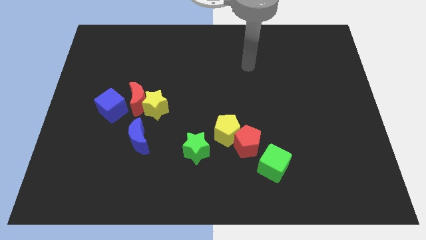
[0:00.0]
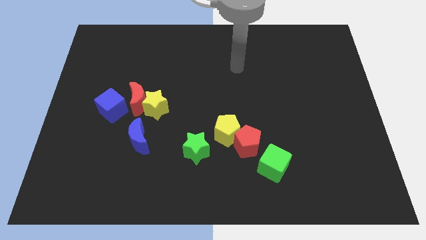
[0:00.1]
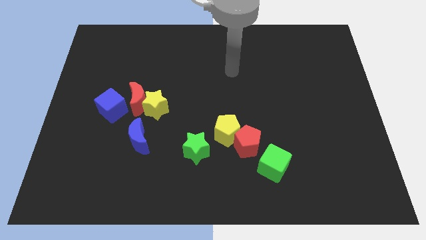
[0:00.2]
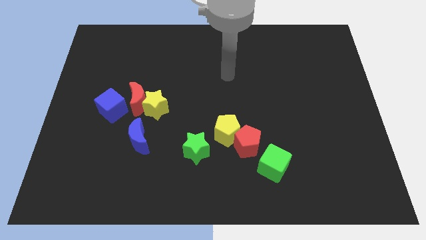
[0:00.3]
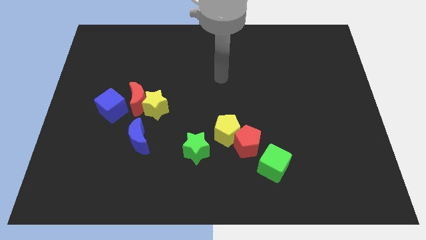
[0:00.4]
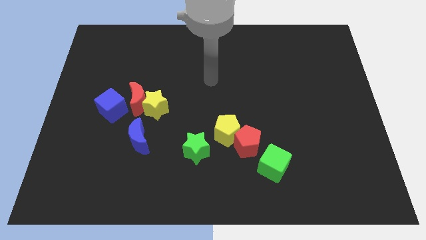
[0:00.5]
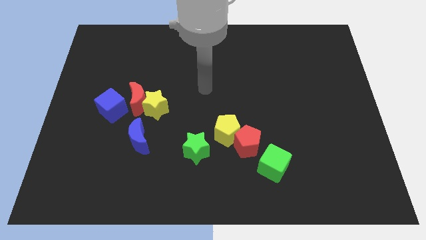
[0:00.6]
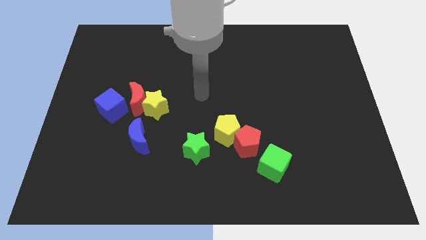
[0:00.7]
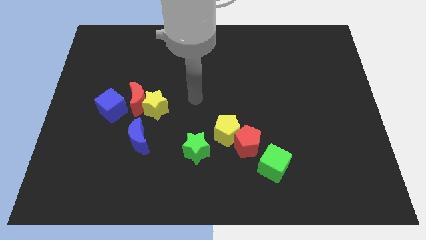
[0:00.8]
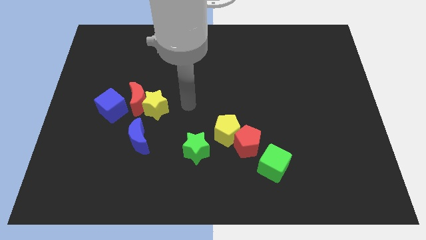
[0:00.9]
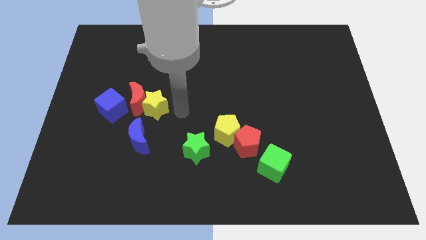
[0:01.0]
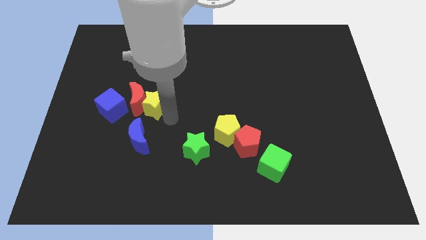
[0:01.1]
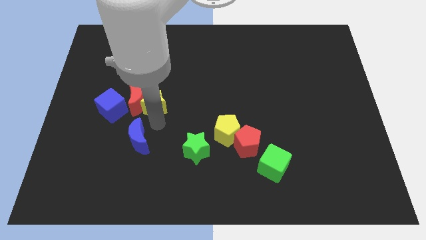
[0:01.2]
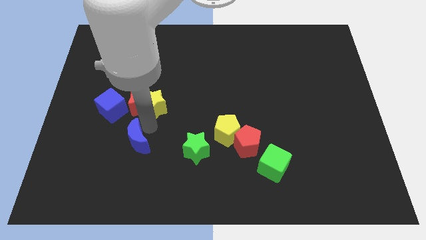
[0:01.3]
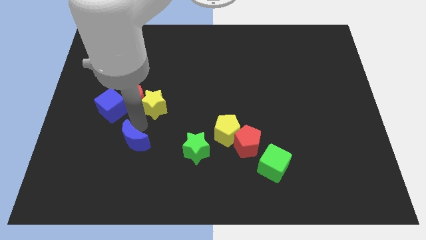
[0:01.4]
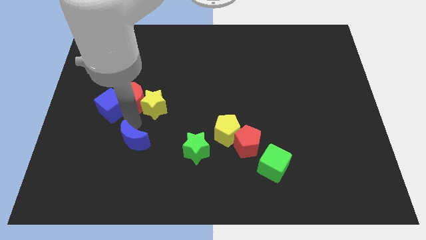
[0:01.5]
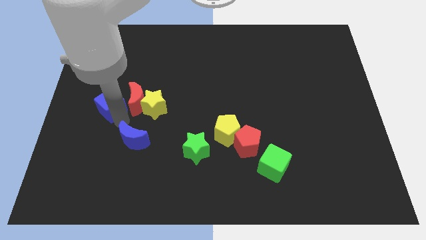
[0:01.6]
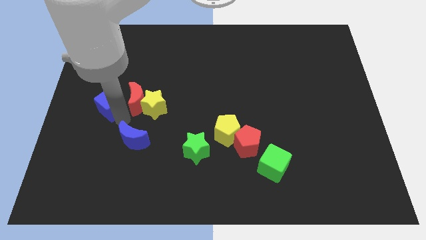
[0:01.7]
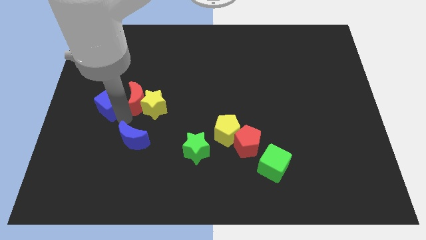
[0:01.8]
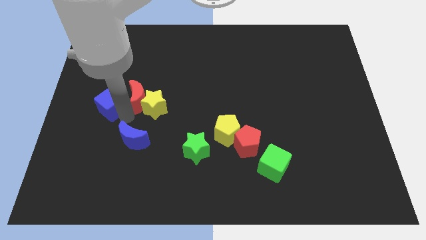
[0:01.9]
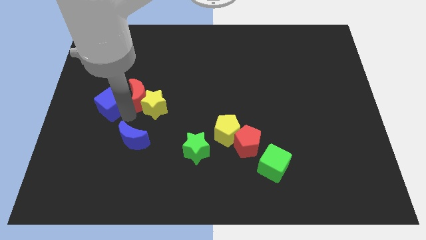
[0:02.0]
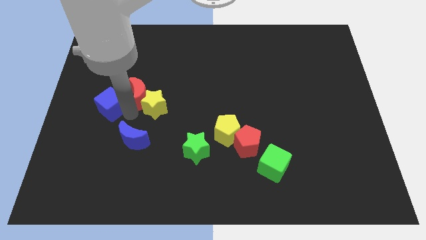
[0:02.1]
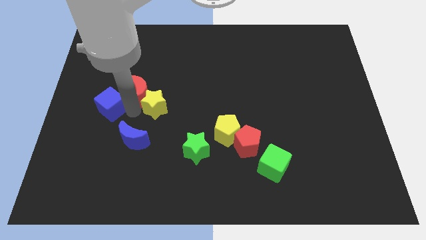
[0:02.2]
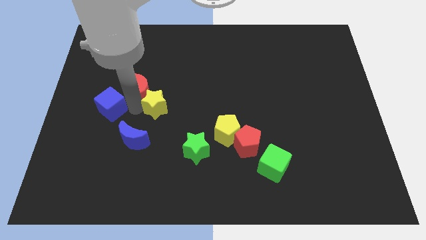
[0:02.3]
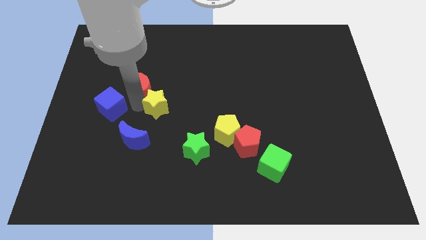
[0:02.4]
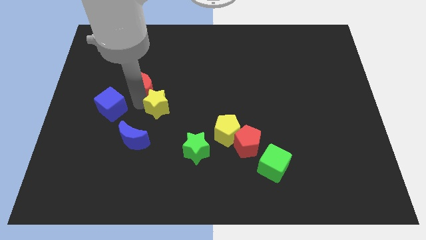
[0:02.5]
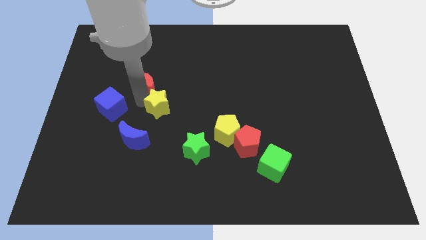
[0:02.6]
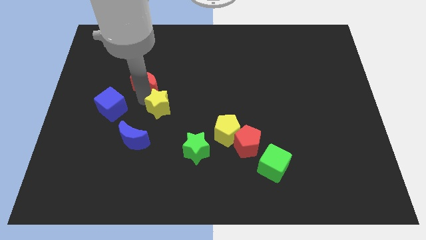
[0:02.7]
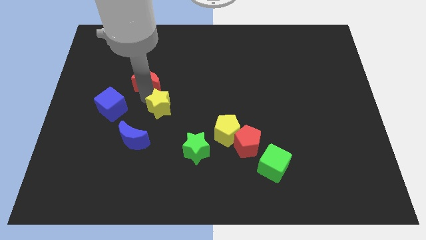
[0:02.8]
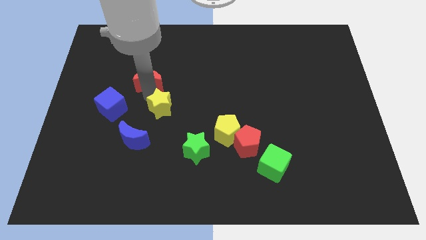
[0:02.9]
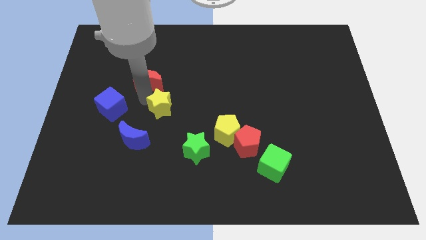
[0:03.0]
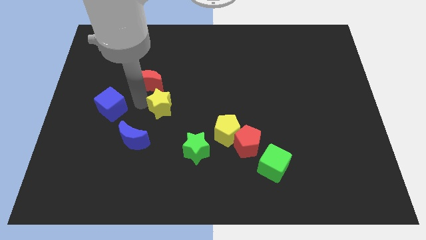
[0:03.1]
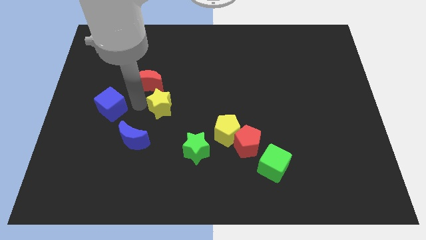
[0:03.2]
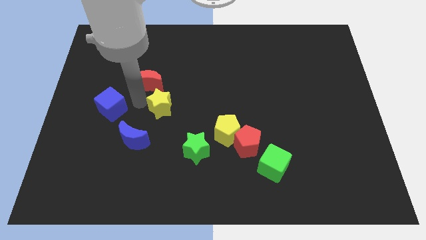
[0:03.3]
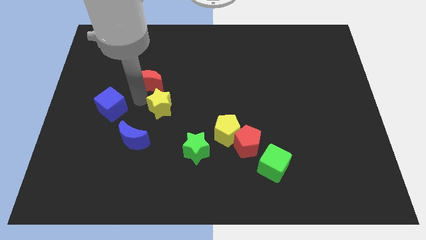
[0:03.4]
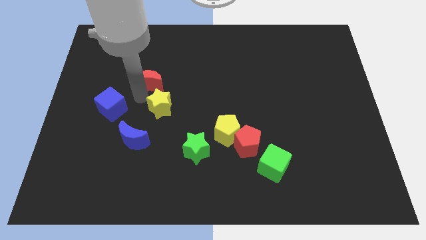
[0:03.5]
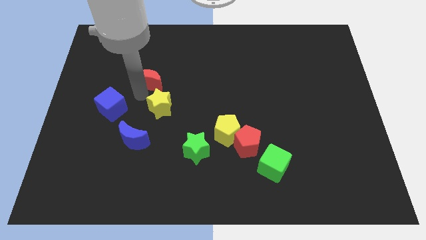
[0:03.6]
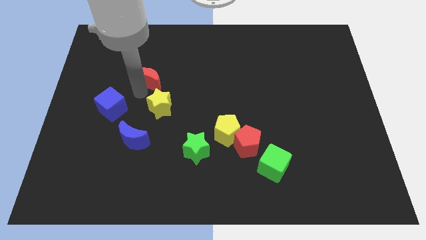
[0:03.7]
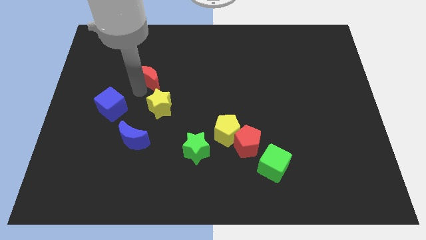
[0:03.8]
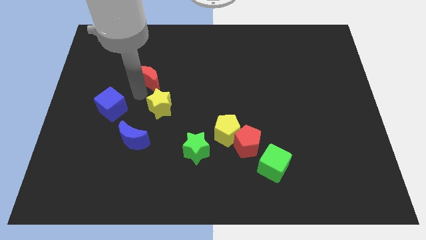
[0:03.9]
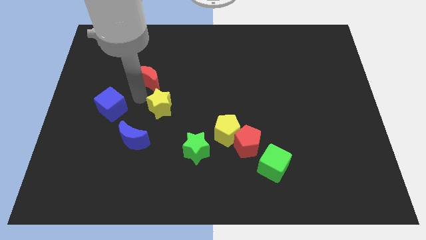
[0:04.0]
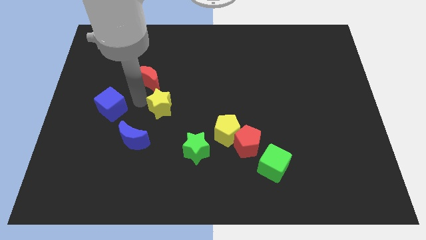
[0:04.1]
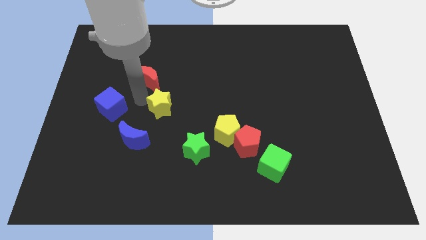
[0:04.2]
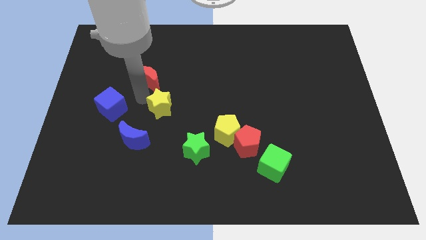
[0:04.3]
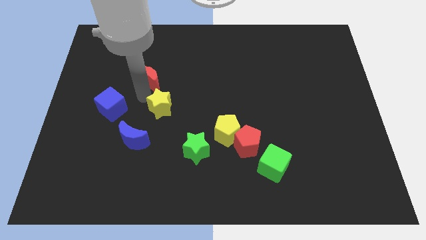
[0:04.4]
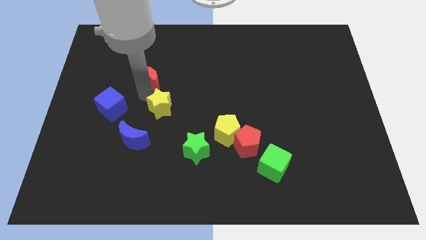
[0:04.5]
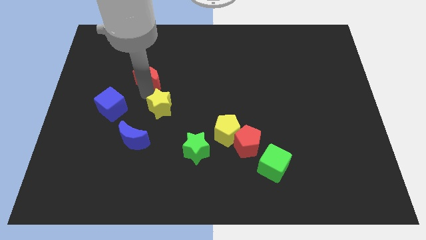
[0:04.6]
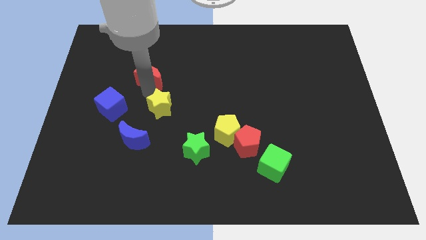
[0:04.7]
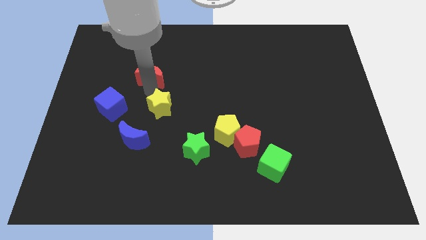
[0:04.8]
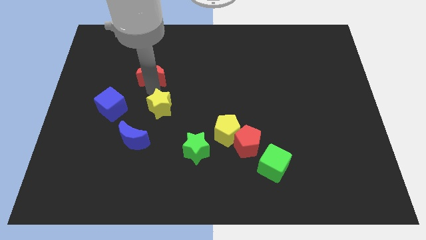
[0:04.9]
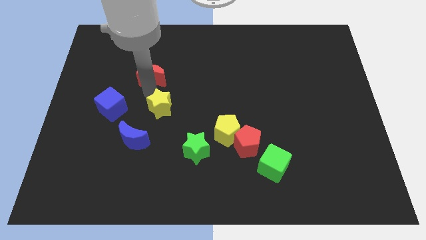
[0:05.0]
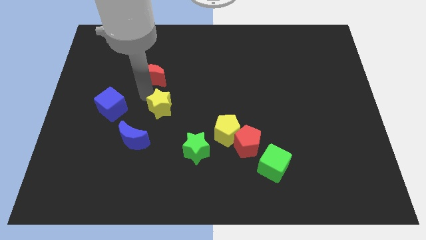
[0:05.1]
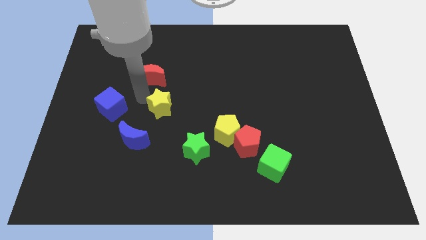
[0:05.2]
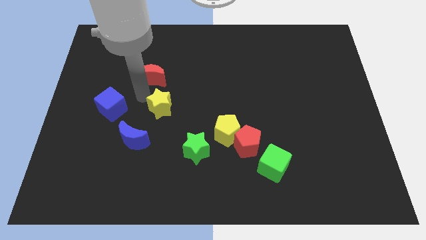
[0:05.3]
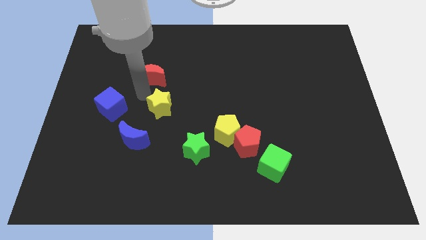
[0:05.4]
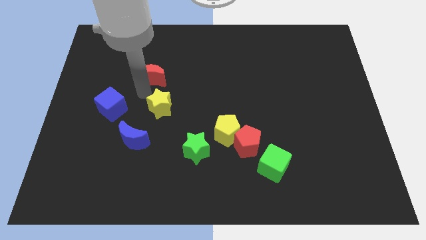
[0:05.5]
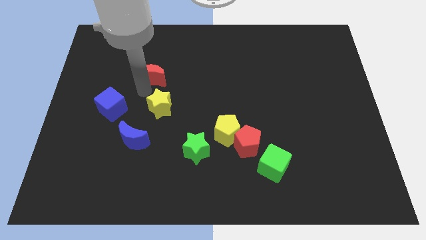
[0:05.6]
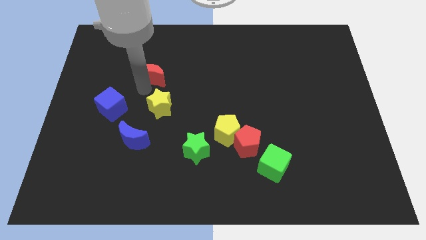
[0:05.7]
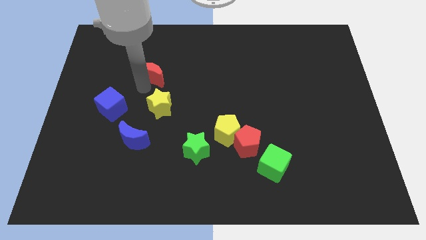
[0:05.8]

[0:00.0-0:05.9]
pull the red moon apart from the yellow star and blue cube

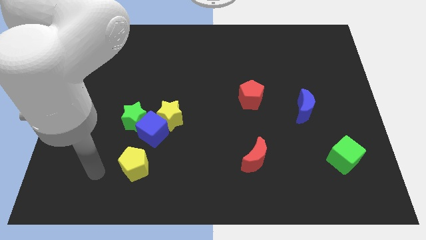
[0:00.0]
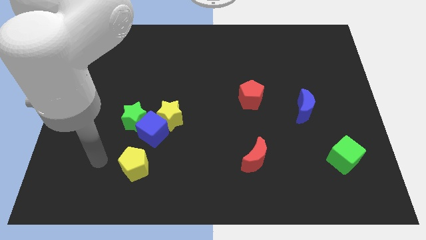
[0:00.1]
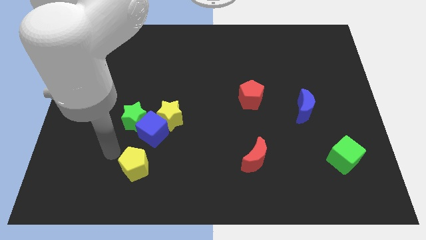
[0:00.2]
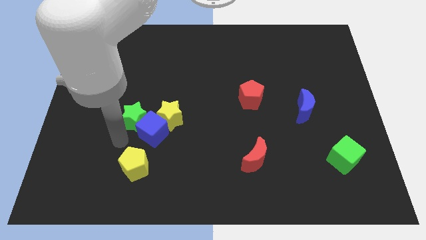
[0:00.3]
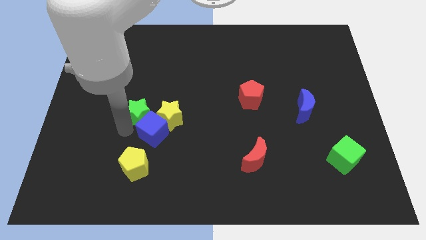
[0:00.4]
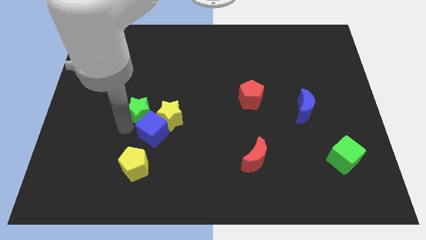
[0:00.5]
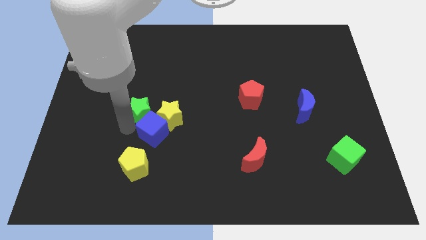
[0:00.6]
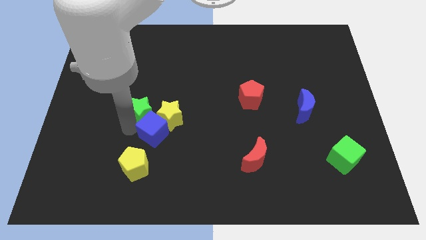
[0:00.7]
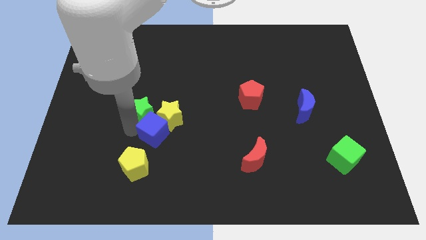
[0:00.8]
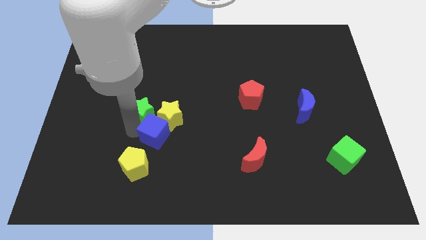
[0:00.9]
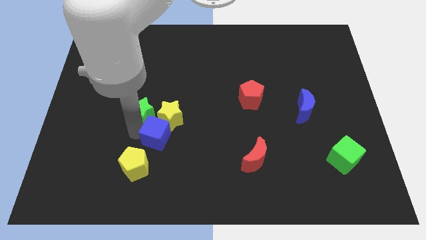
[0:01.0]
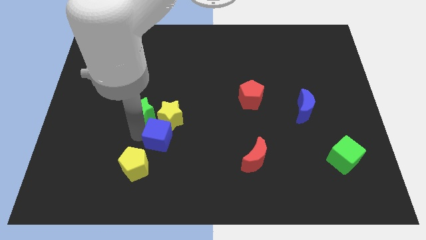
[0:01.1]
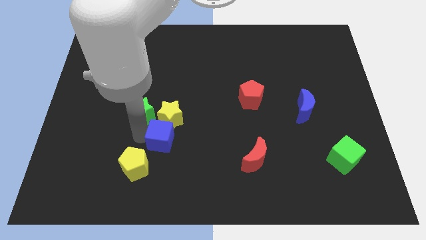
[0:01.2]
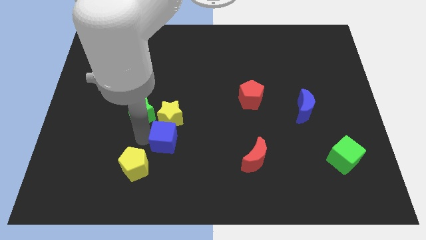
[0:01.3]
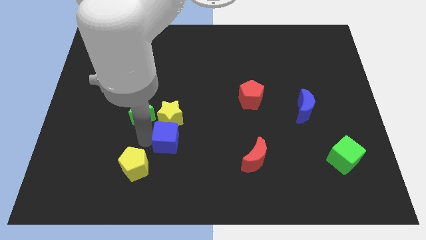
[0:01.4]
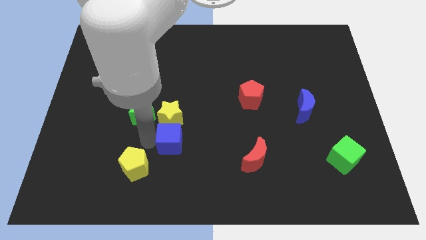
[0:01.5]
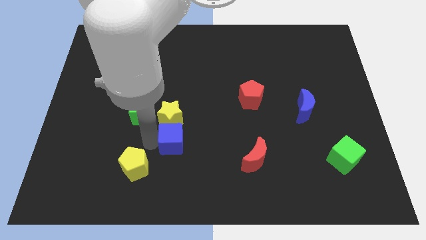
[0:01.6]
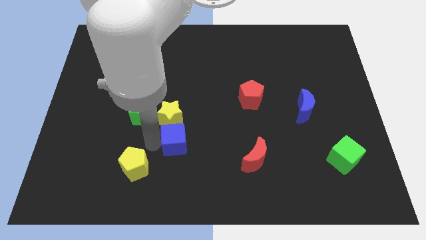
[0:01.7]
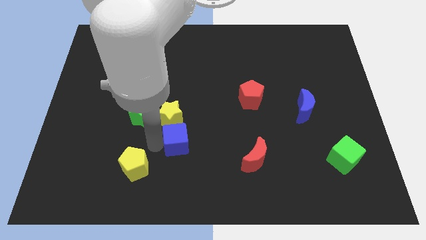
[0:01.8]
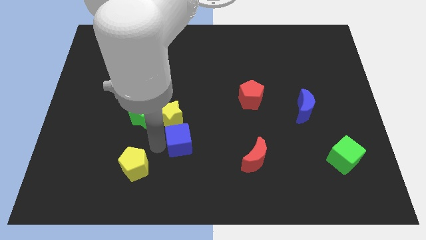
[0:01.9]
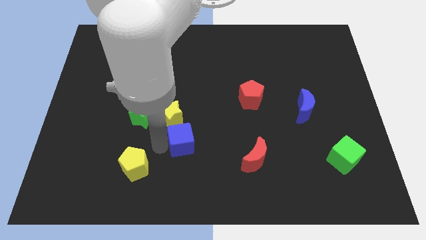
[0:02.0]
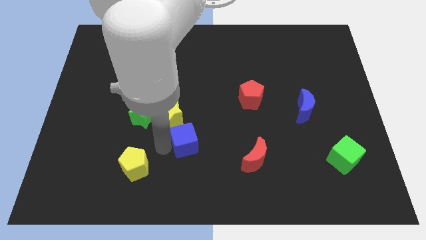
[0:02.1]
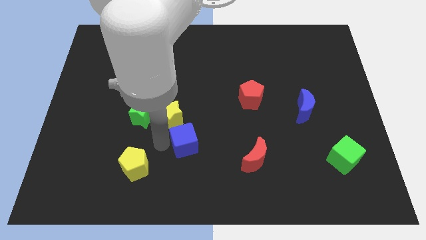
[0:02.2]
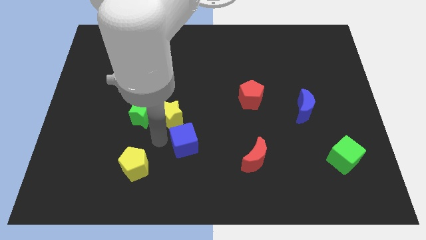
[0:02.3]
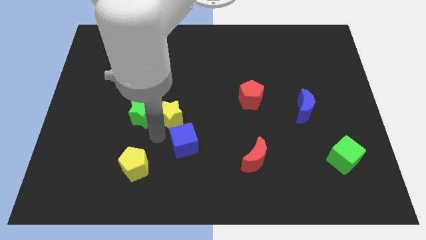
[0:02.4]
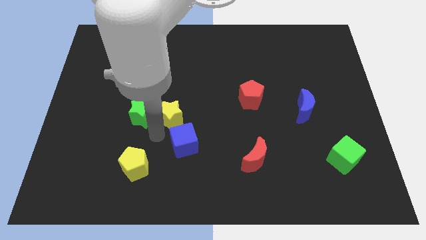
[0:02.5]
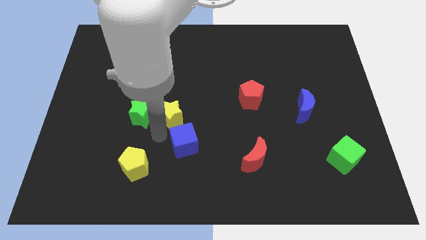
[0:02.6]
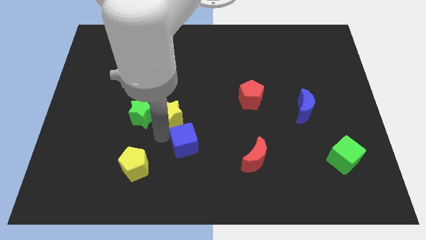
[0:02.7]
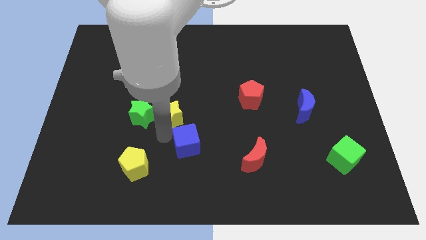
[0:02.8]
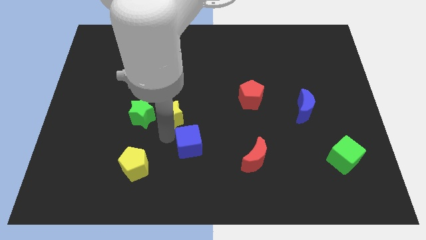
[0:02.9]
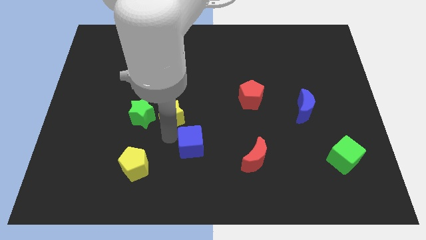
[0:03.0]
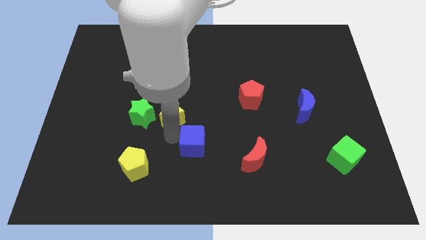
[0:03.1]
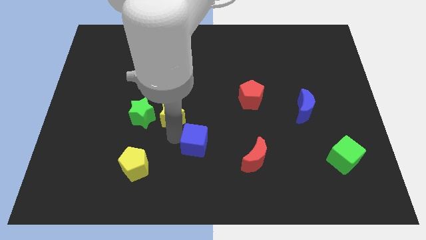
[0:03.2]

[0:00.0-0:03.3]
pull the blue cube apart from the green star, yellow star, and yellow pentagon

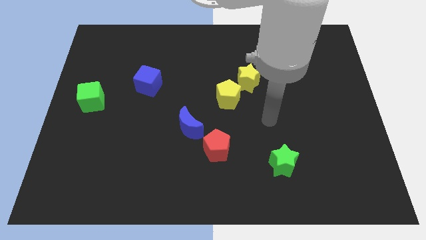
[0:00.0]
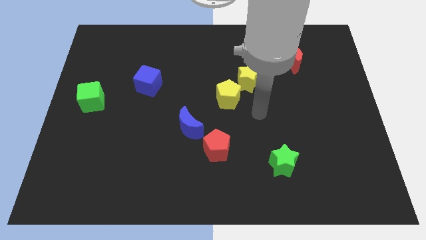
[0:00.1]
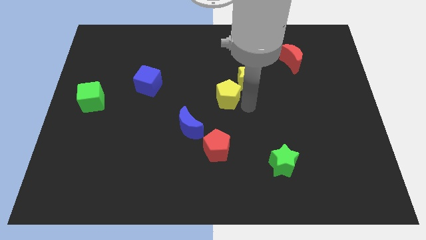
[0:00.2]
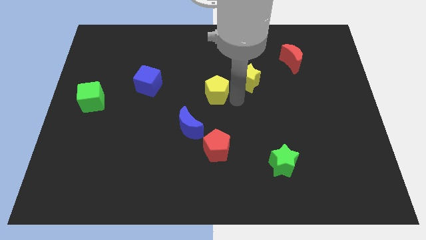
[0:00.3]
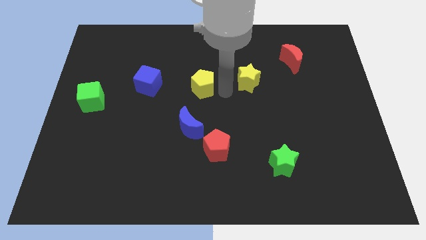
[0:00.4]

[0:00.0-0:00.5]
pull the yellow star apart from the yellow pentagon
